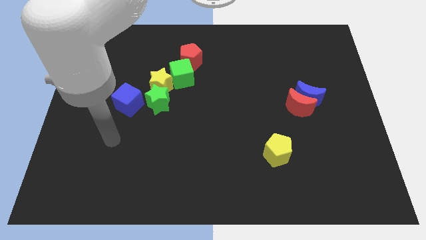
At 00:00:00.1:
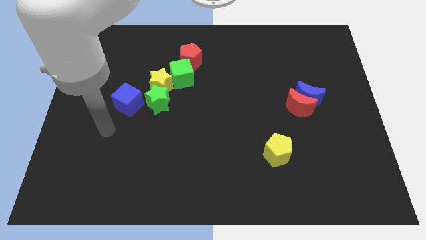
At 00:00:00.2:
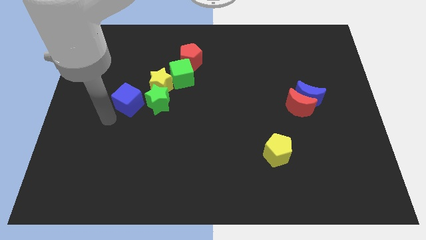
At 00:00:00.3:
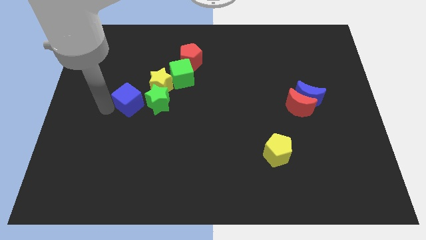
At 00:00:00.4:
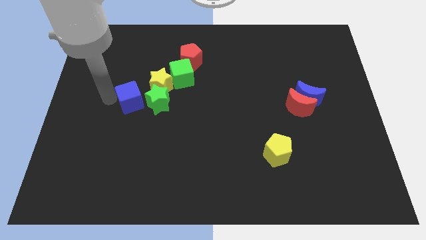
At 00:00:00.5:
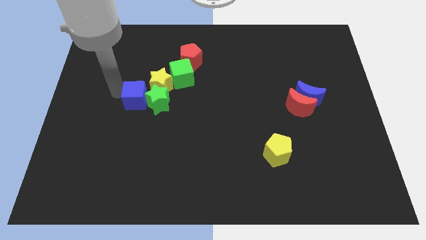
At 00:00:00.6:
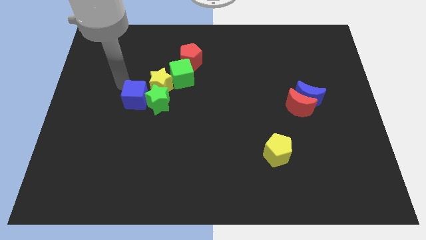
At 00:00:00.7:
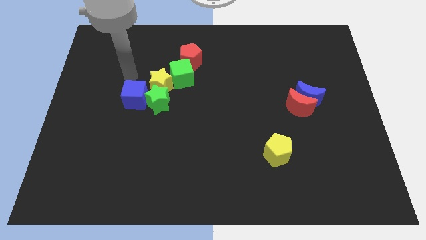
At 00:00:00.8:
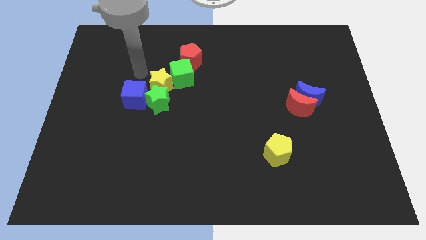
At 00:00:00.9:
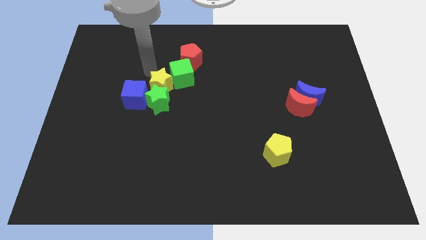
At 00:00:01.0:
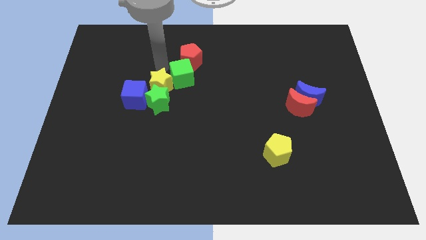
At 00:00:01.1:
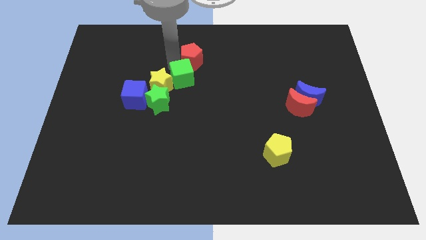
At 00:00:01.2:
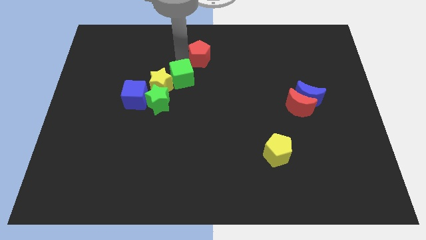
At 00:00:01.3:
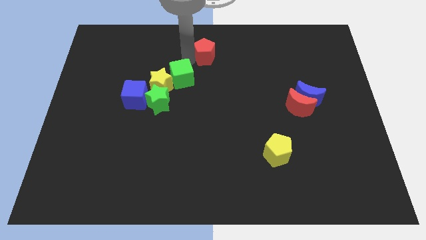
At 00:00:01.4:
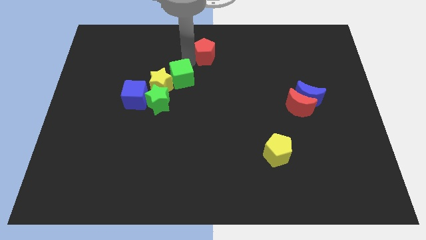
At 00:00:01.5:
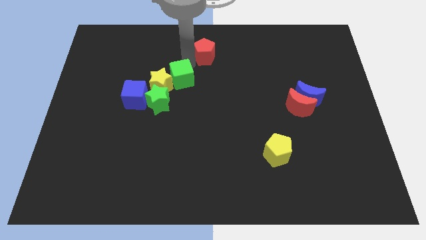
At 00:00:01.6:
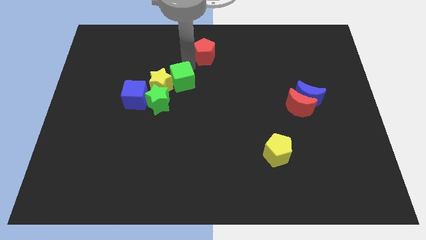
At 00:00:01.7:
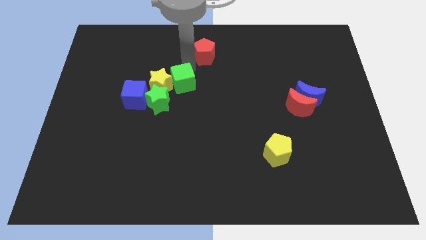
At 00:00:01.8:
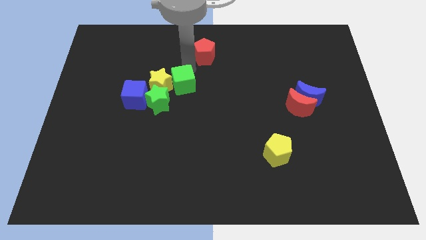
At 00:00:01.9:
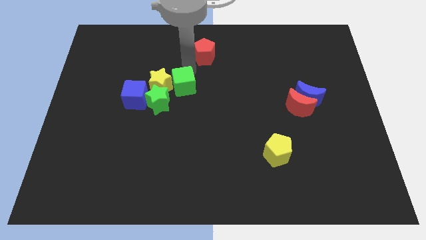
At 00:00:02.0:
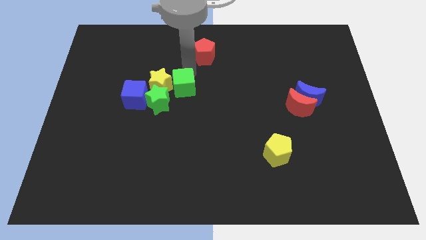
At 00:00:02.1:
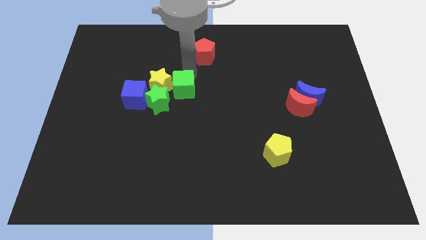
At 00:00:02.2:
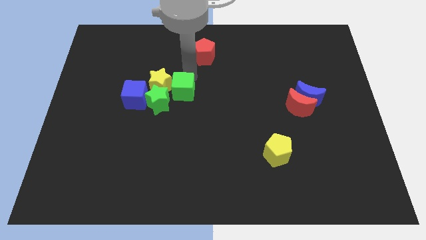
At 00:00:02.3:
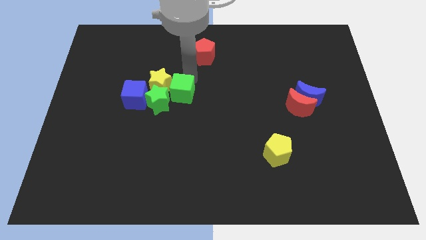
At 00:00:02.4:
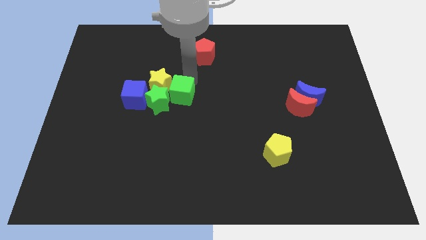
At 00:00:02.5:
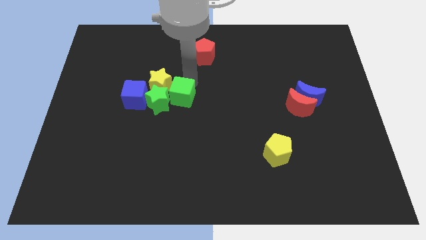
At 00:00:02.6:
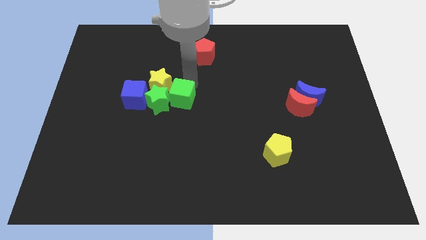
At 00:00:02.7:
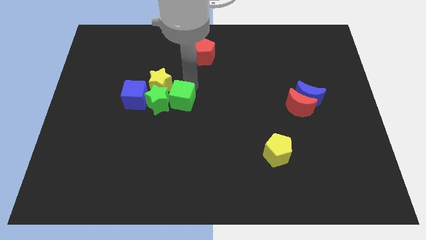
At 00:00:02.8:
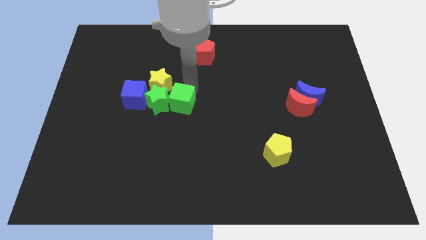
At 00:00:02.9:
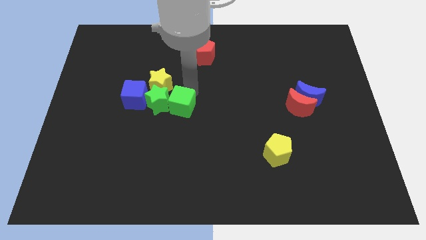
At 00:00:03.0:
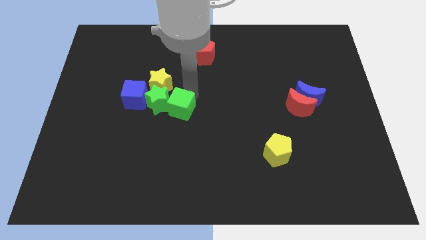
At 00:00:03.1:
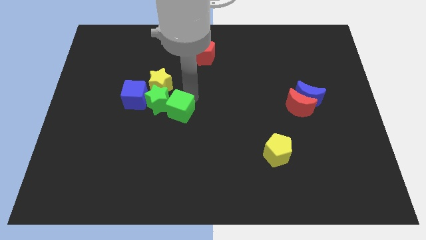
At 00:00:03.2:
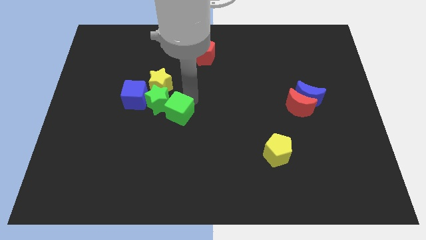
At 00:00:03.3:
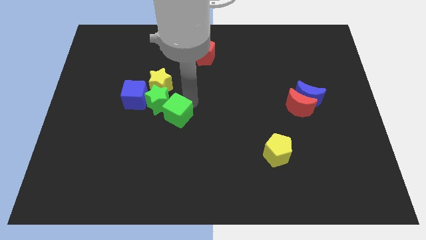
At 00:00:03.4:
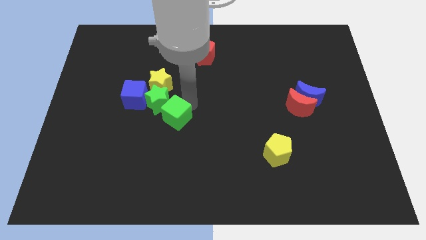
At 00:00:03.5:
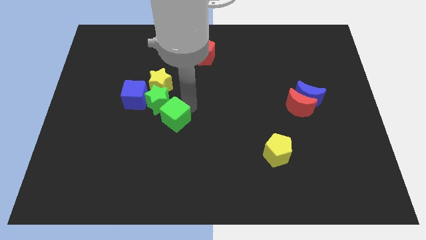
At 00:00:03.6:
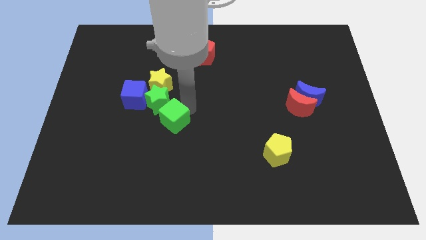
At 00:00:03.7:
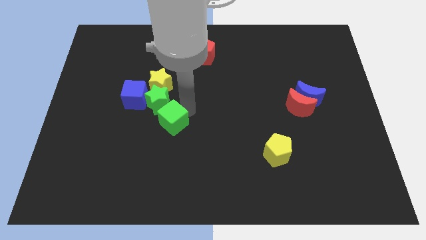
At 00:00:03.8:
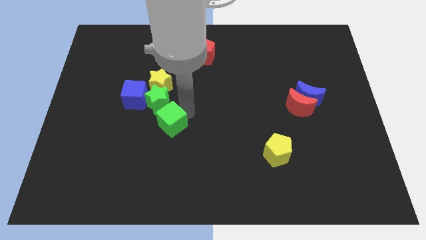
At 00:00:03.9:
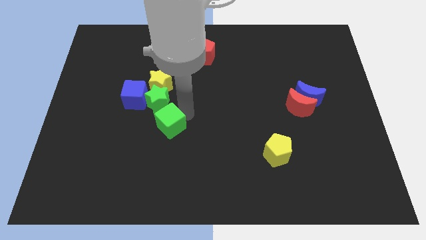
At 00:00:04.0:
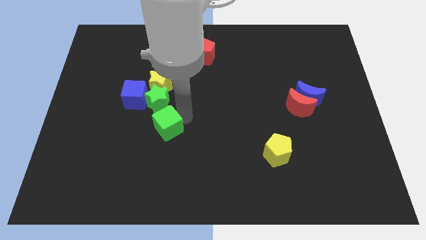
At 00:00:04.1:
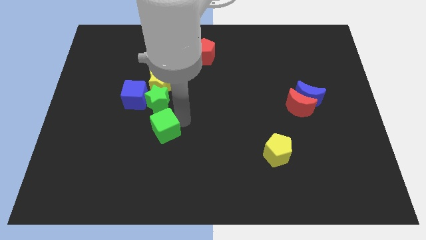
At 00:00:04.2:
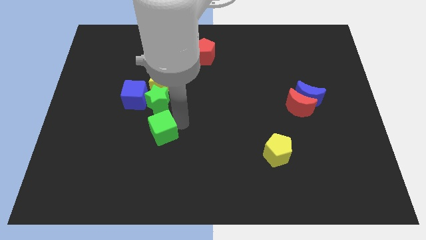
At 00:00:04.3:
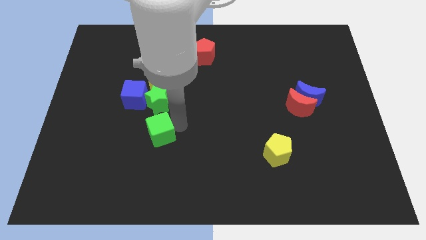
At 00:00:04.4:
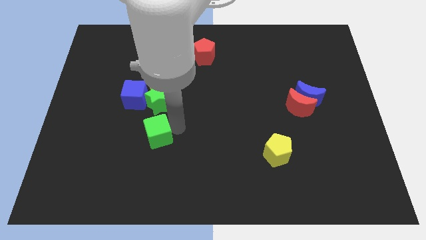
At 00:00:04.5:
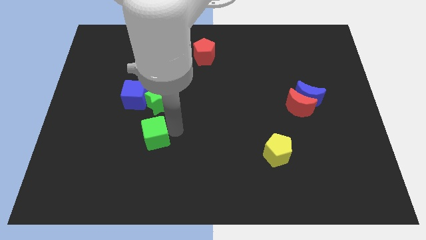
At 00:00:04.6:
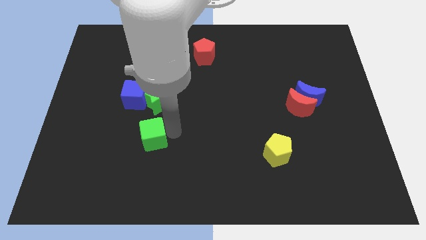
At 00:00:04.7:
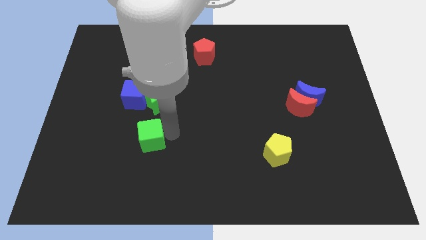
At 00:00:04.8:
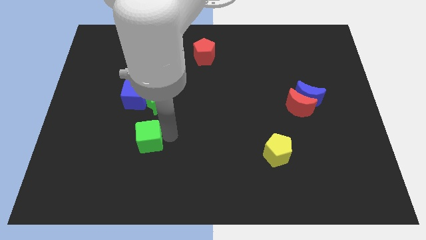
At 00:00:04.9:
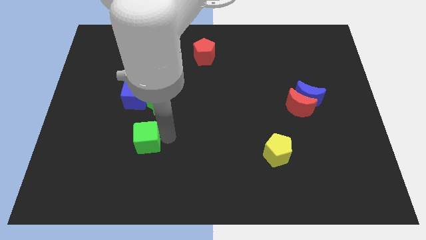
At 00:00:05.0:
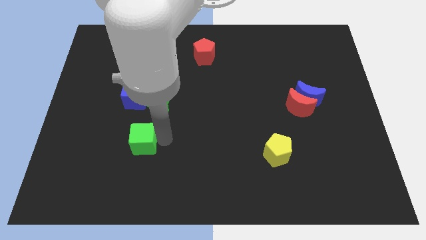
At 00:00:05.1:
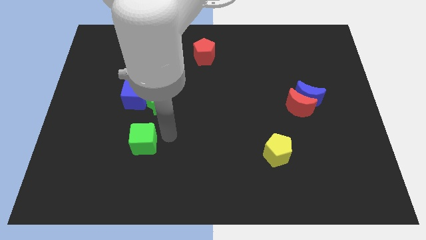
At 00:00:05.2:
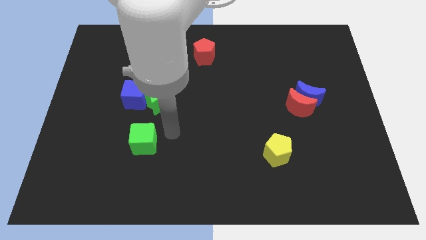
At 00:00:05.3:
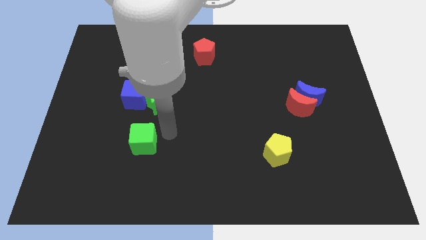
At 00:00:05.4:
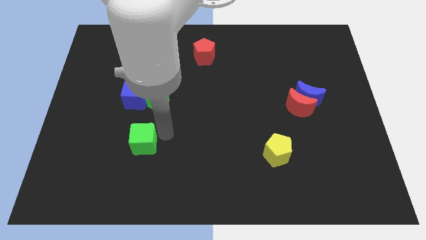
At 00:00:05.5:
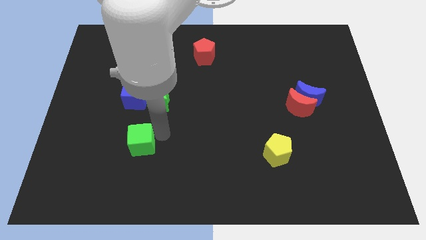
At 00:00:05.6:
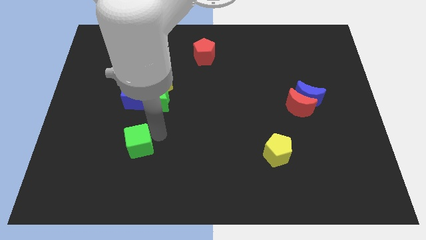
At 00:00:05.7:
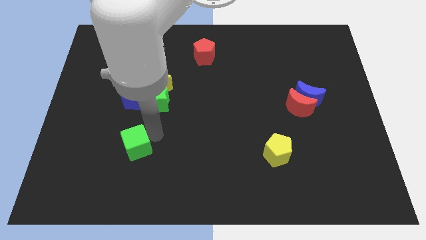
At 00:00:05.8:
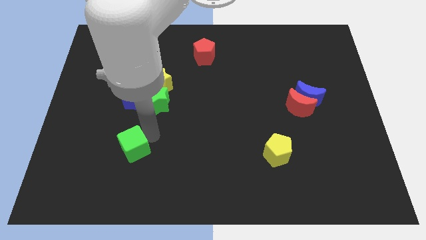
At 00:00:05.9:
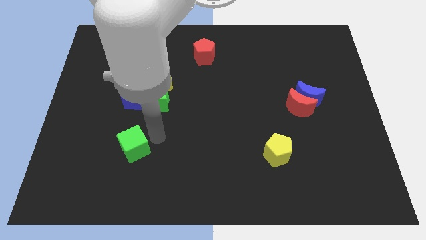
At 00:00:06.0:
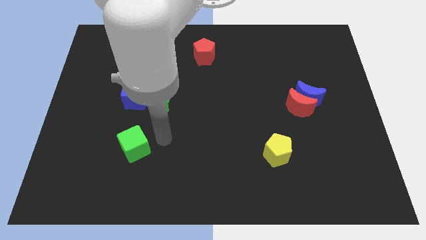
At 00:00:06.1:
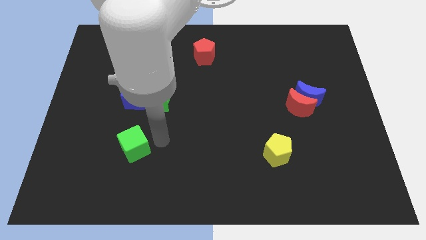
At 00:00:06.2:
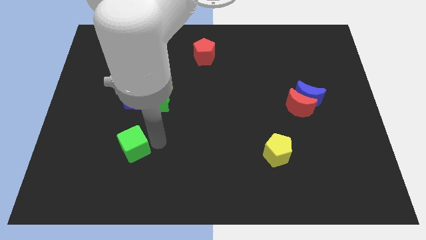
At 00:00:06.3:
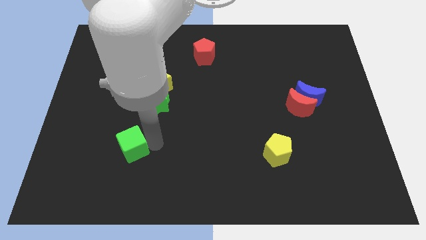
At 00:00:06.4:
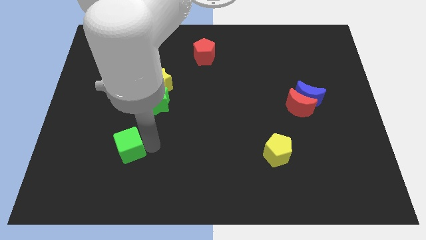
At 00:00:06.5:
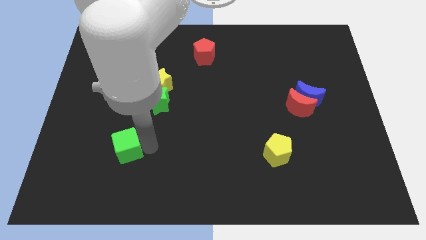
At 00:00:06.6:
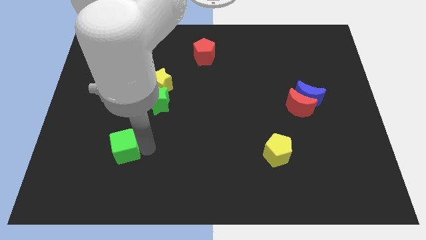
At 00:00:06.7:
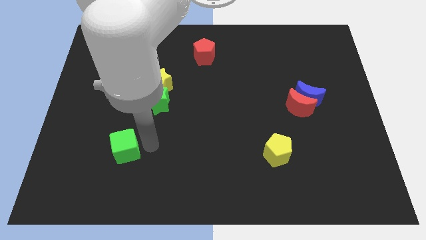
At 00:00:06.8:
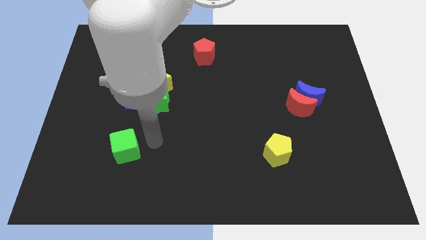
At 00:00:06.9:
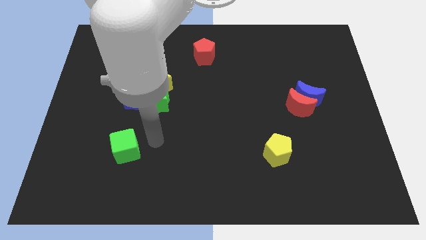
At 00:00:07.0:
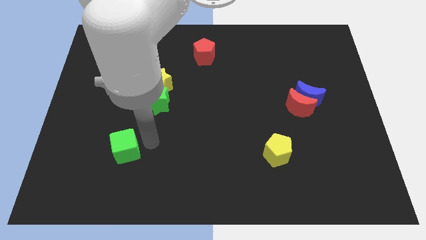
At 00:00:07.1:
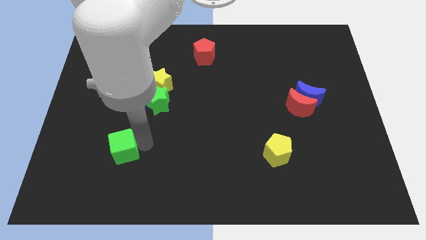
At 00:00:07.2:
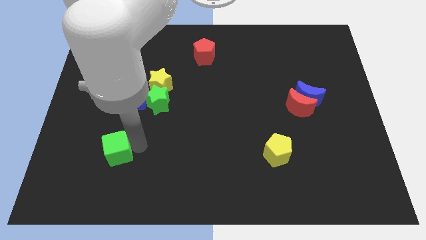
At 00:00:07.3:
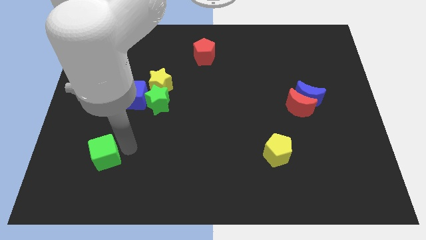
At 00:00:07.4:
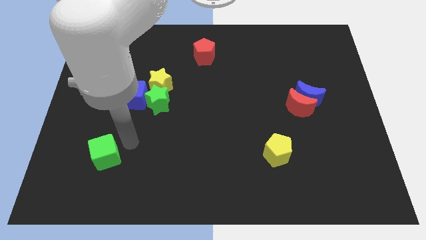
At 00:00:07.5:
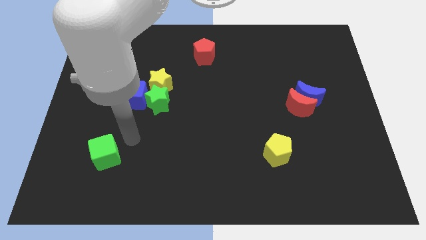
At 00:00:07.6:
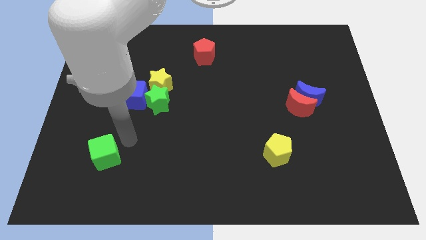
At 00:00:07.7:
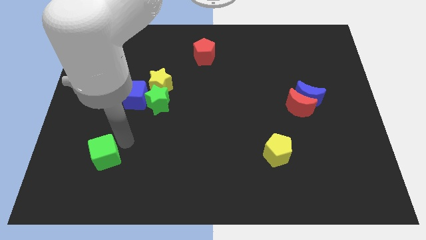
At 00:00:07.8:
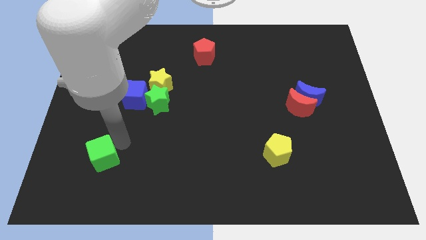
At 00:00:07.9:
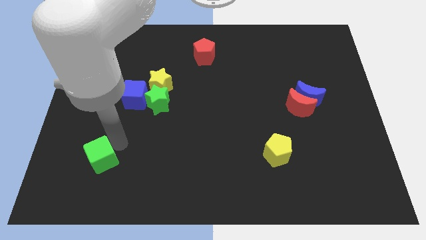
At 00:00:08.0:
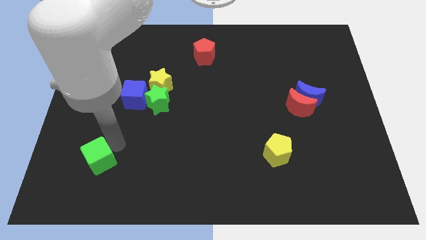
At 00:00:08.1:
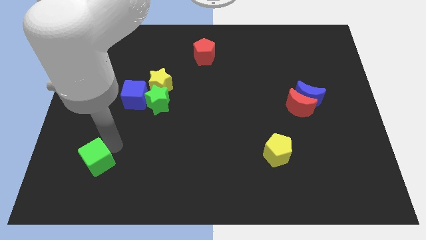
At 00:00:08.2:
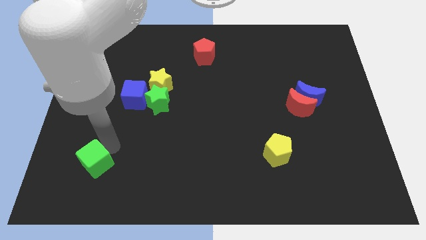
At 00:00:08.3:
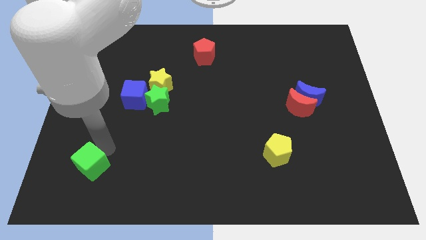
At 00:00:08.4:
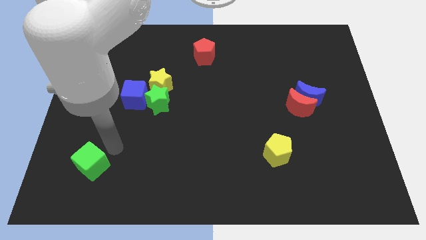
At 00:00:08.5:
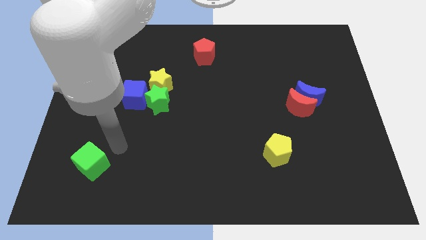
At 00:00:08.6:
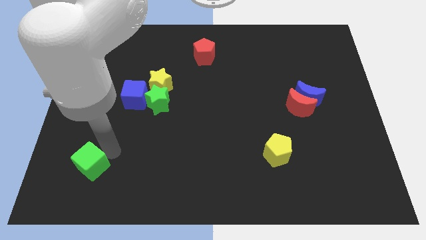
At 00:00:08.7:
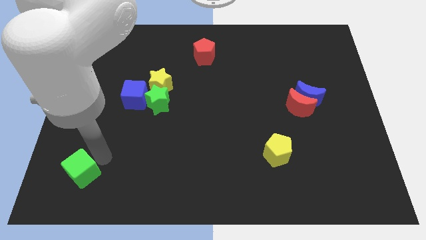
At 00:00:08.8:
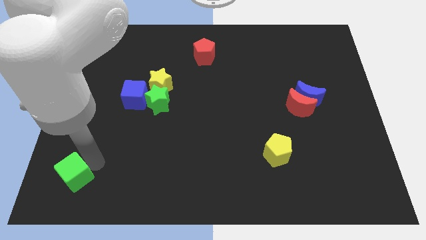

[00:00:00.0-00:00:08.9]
push the green cube to the bottom left
